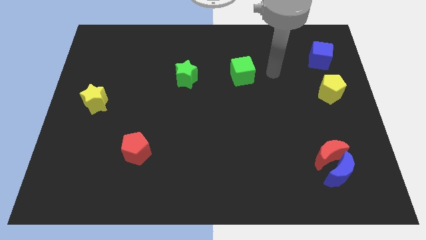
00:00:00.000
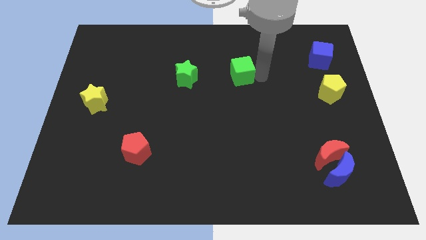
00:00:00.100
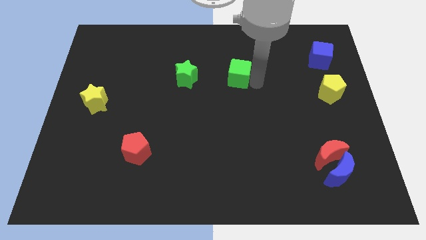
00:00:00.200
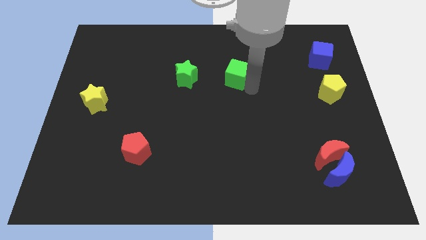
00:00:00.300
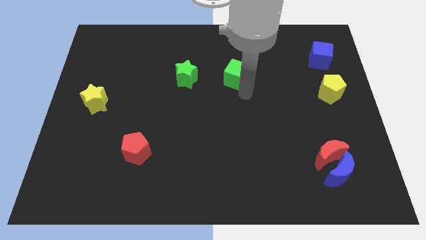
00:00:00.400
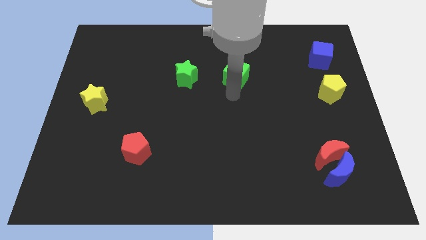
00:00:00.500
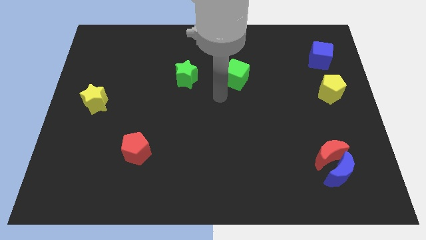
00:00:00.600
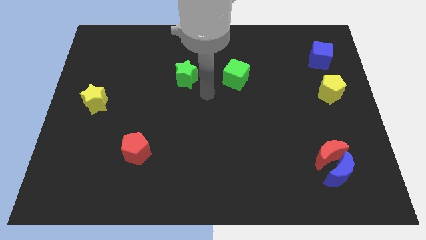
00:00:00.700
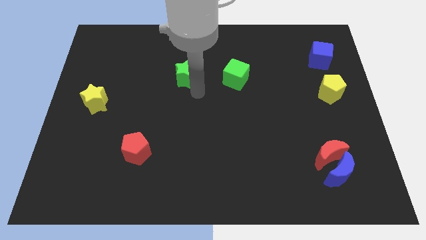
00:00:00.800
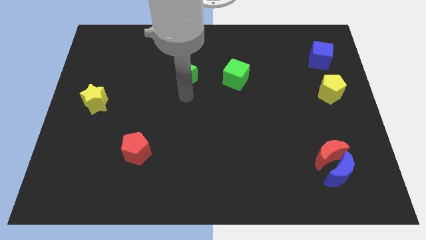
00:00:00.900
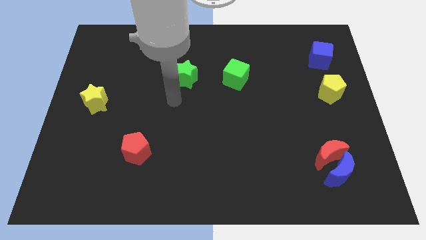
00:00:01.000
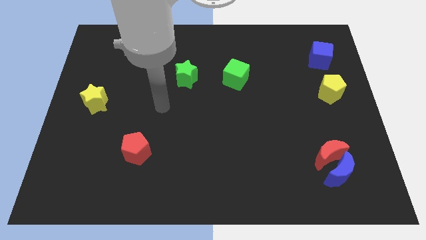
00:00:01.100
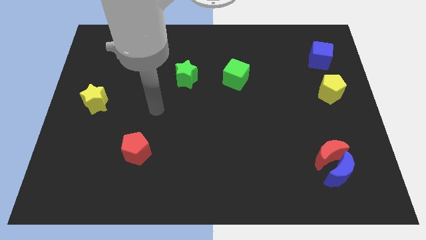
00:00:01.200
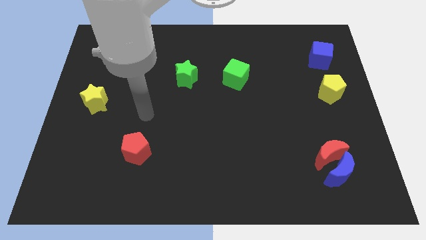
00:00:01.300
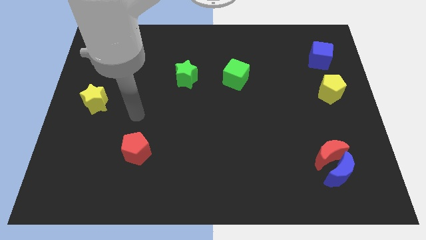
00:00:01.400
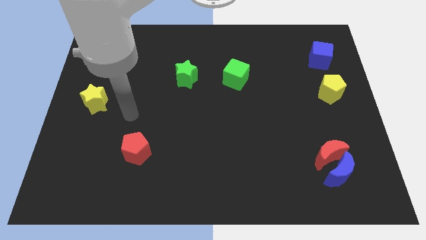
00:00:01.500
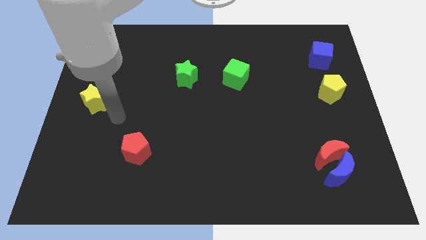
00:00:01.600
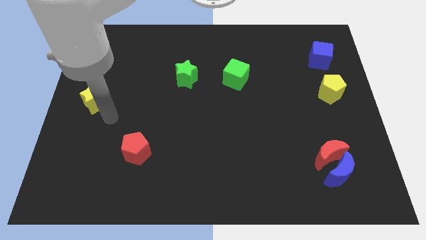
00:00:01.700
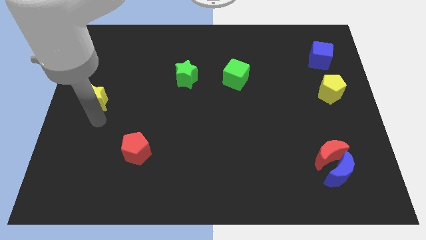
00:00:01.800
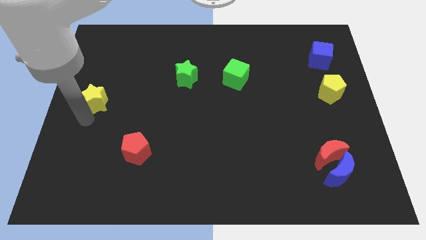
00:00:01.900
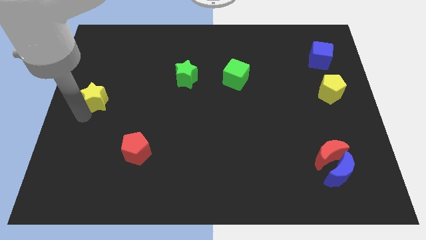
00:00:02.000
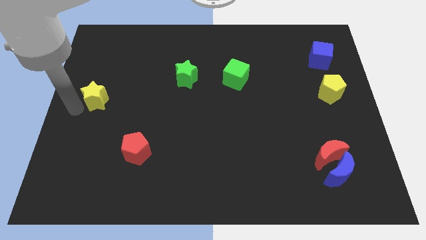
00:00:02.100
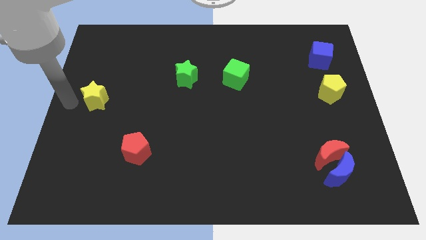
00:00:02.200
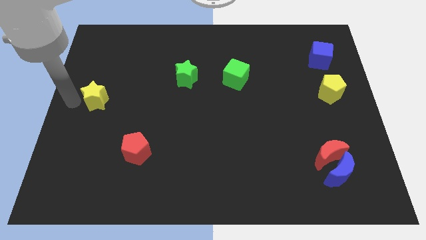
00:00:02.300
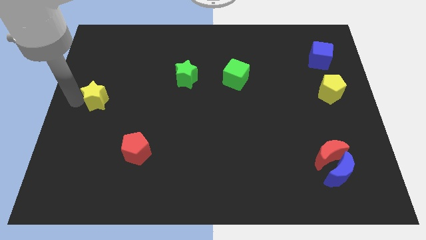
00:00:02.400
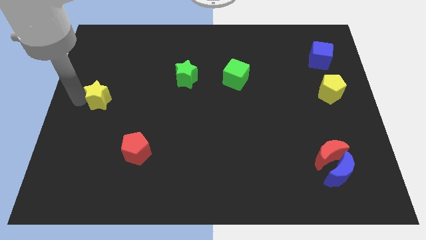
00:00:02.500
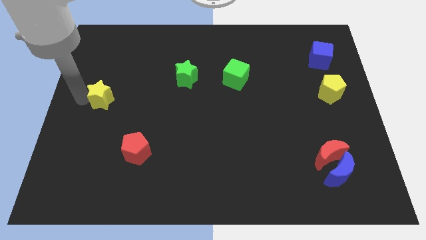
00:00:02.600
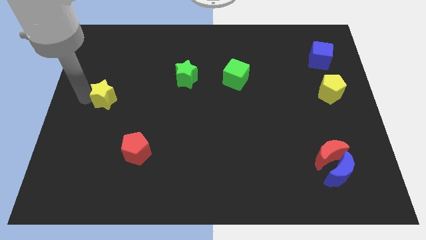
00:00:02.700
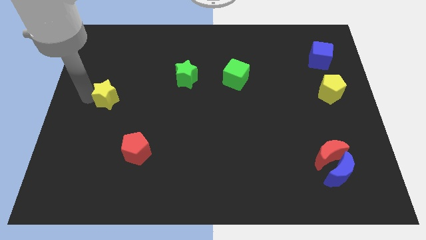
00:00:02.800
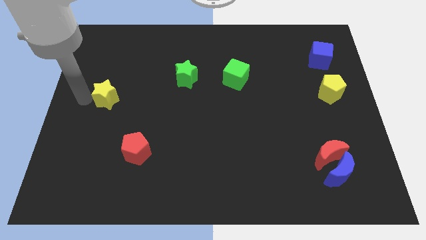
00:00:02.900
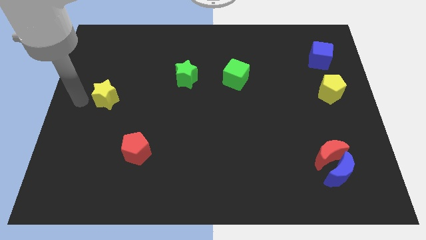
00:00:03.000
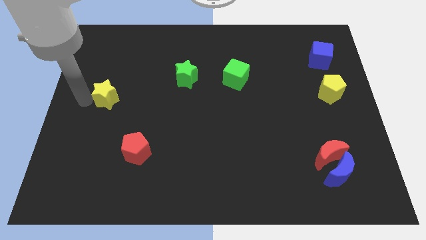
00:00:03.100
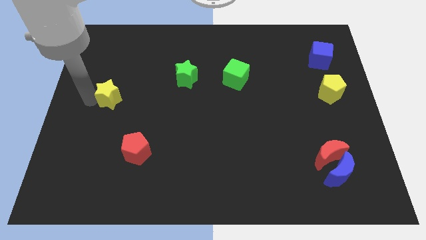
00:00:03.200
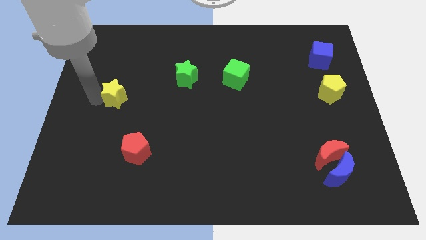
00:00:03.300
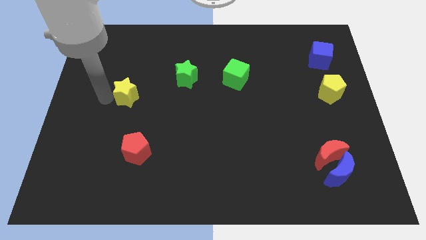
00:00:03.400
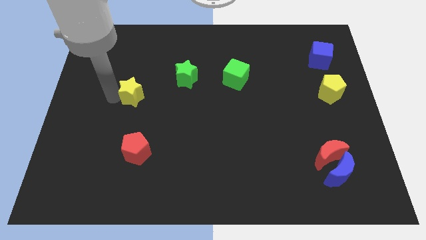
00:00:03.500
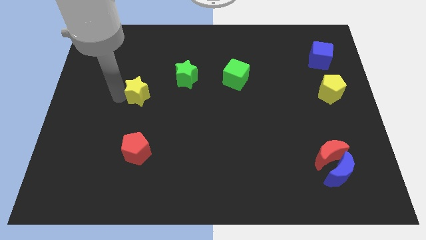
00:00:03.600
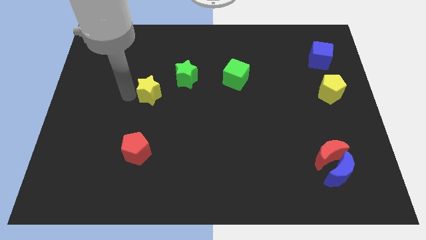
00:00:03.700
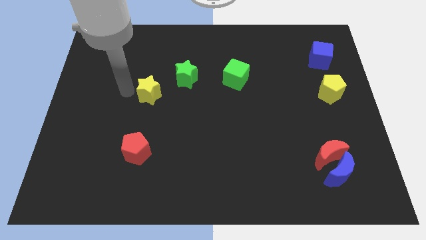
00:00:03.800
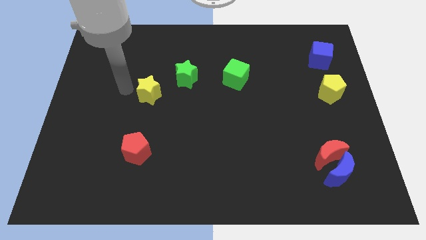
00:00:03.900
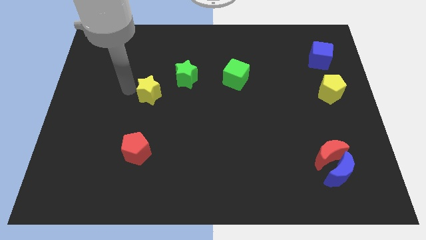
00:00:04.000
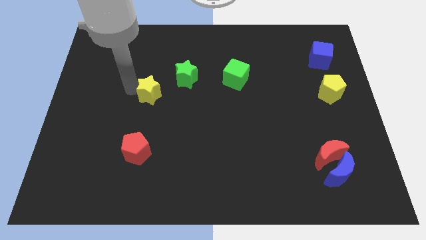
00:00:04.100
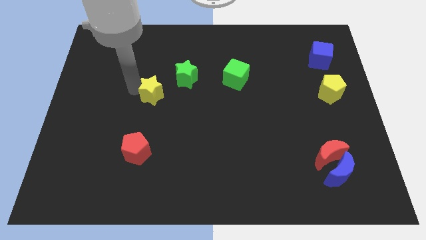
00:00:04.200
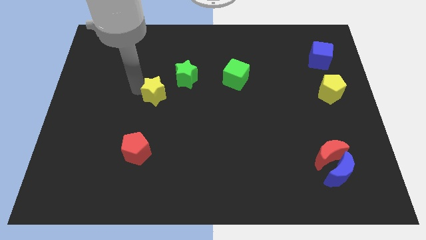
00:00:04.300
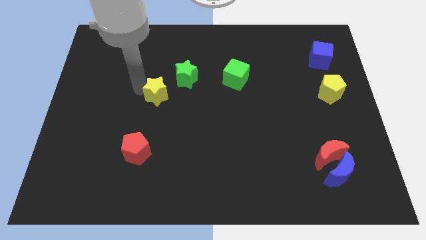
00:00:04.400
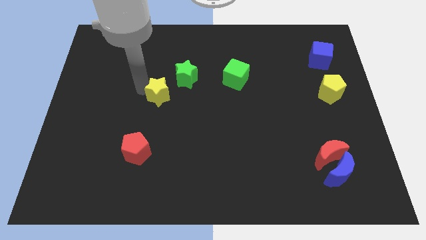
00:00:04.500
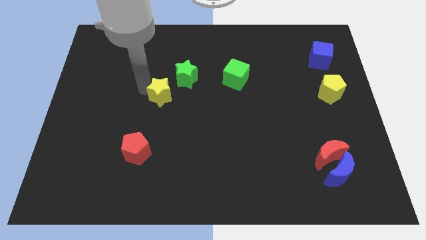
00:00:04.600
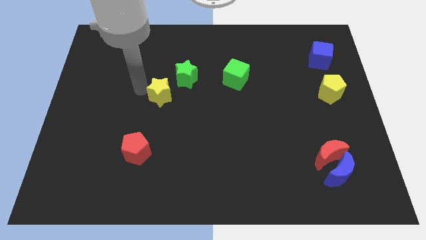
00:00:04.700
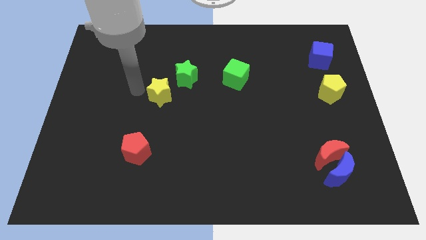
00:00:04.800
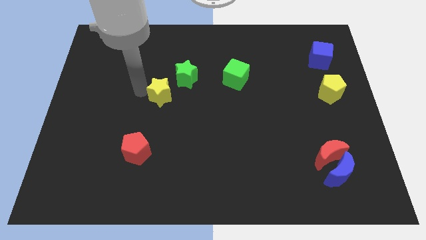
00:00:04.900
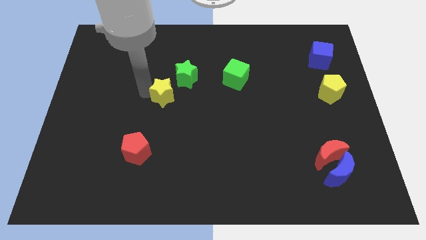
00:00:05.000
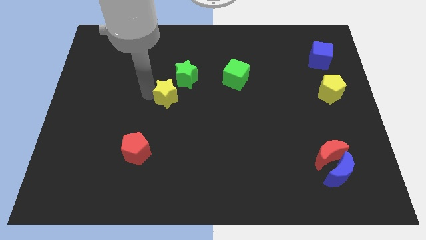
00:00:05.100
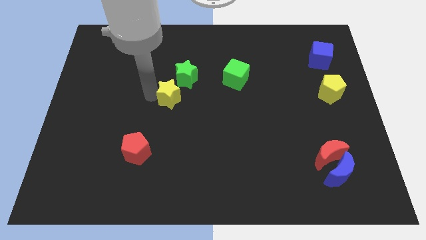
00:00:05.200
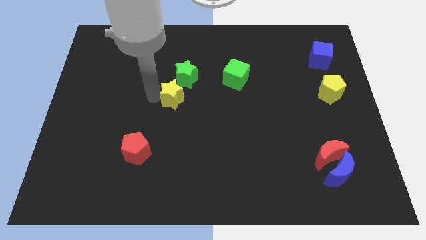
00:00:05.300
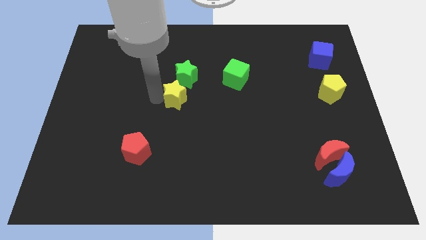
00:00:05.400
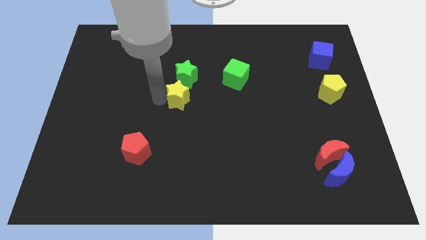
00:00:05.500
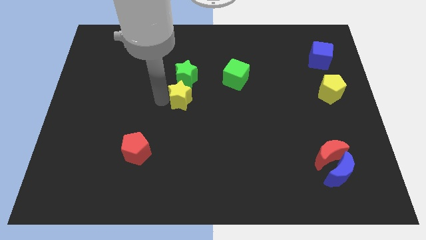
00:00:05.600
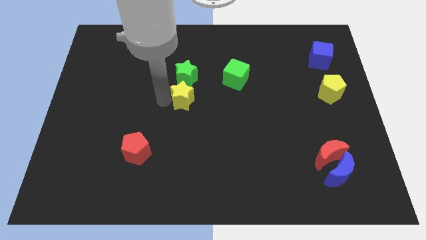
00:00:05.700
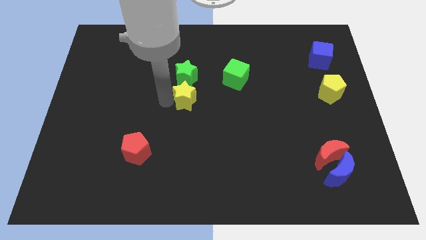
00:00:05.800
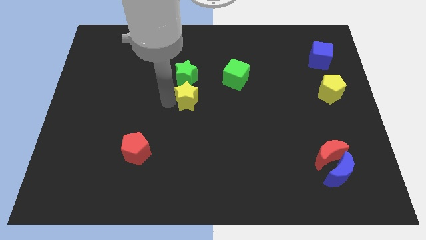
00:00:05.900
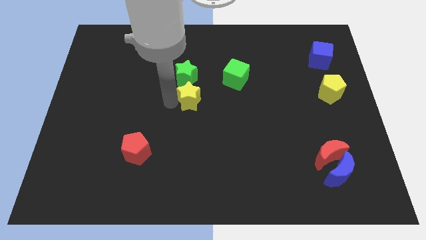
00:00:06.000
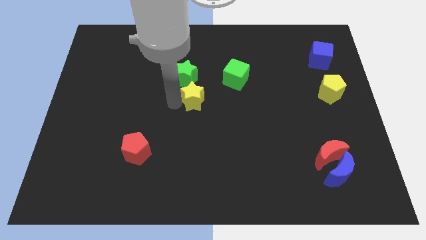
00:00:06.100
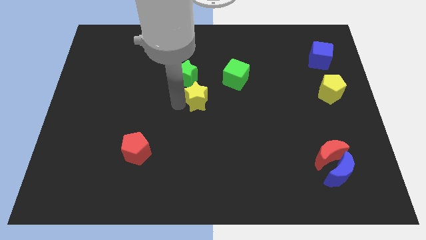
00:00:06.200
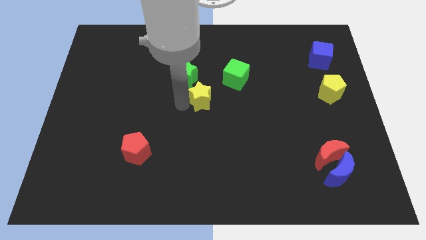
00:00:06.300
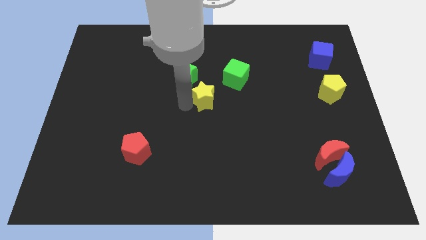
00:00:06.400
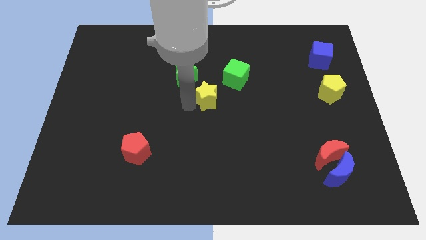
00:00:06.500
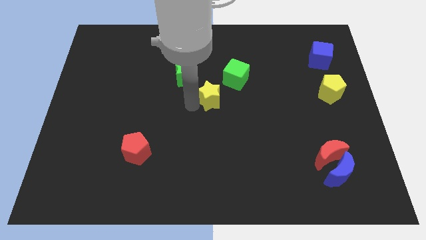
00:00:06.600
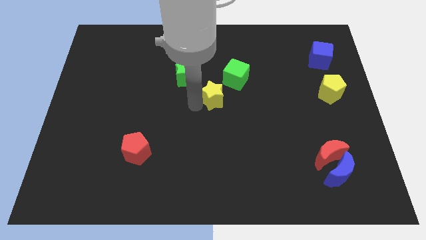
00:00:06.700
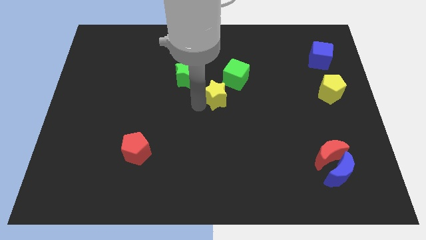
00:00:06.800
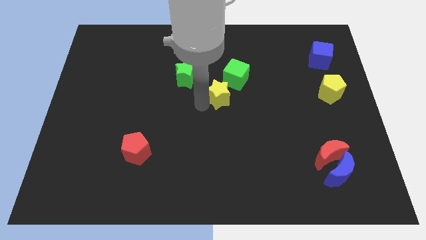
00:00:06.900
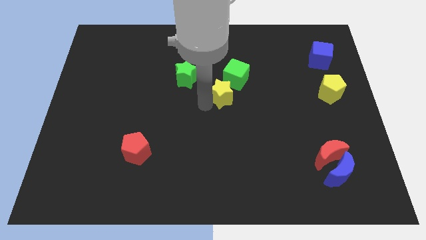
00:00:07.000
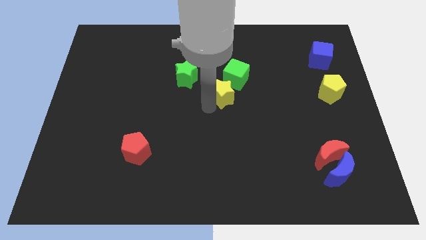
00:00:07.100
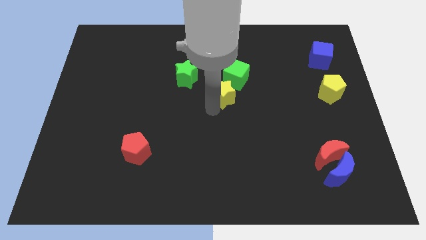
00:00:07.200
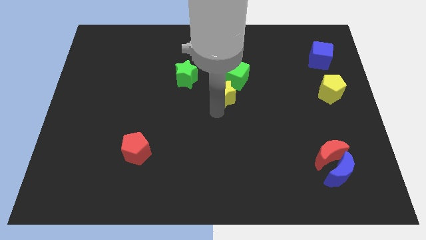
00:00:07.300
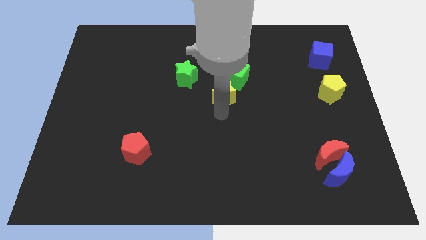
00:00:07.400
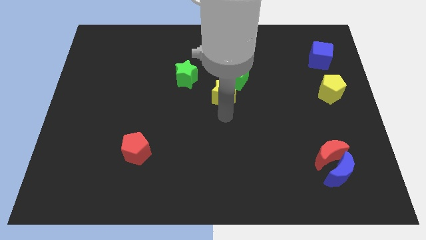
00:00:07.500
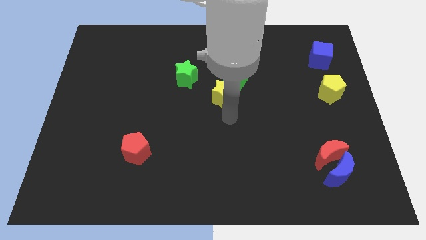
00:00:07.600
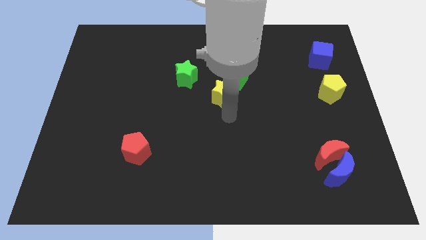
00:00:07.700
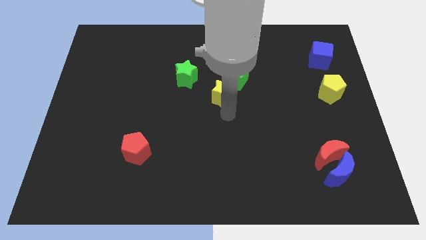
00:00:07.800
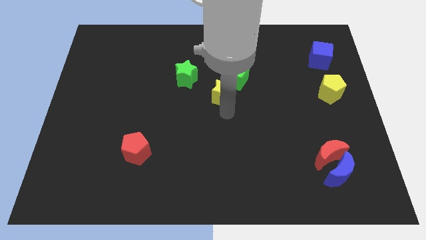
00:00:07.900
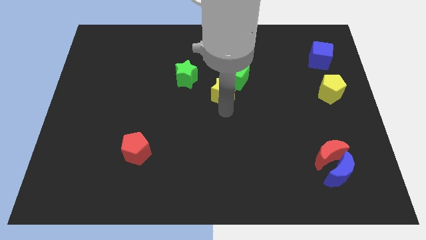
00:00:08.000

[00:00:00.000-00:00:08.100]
move the yellow star towards the green cube
